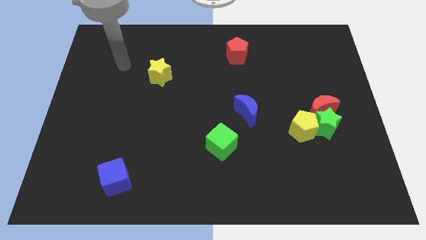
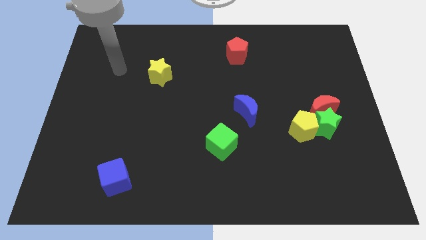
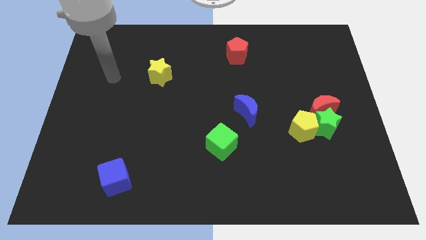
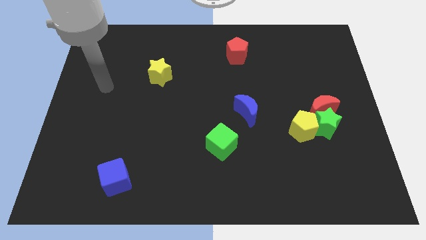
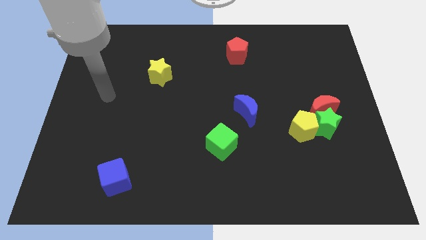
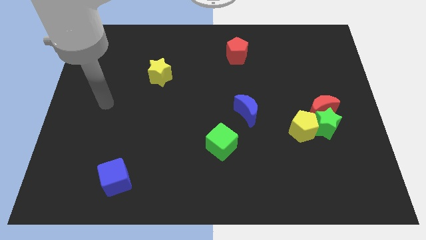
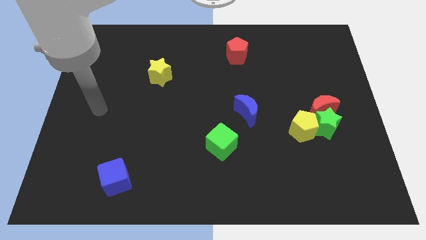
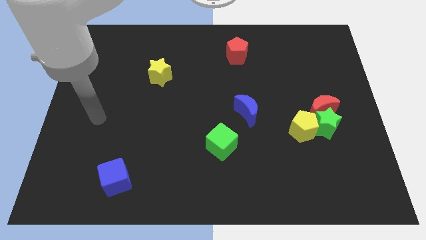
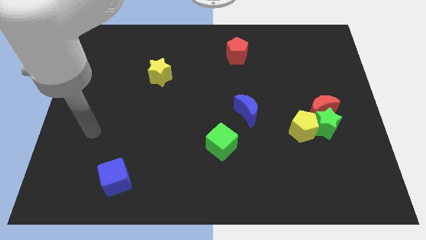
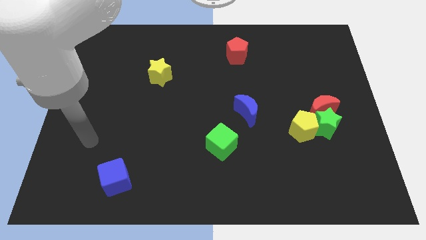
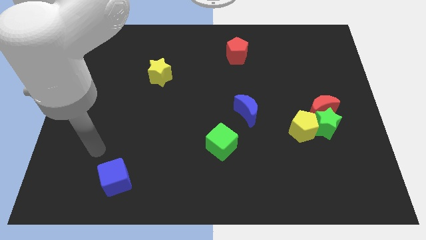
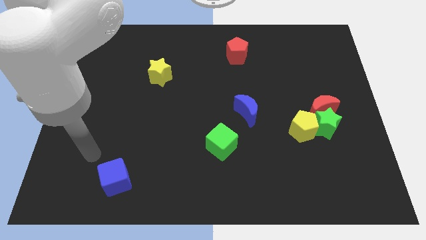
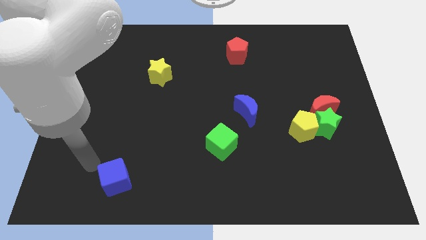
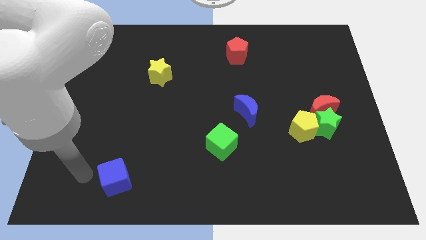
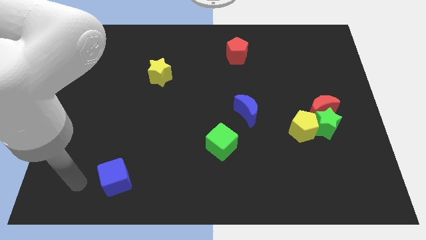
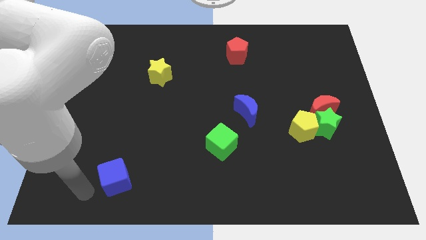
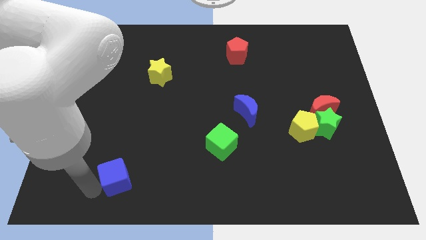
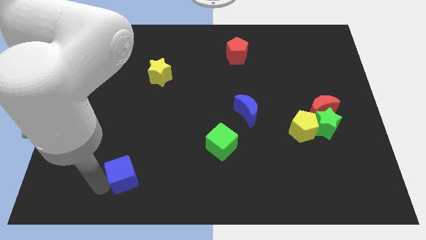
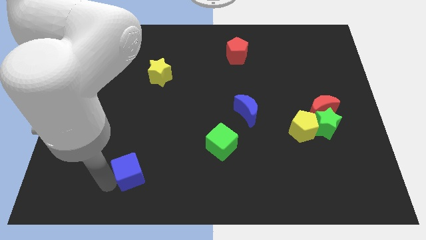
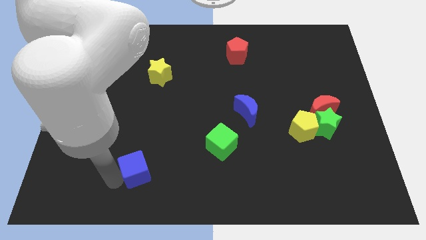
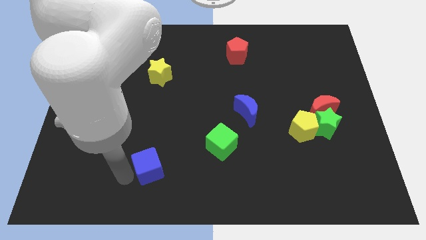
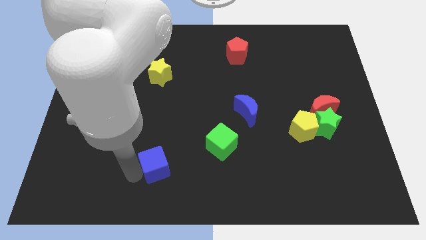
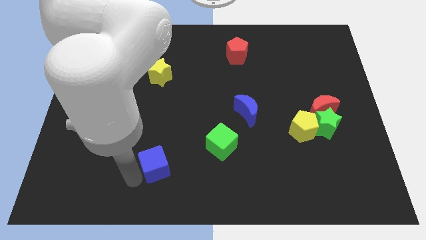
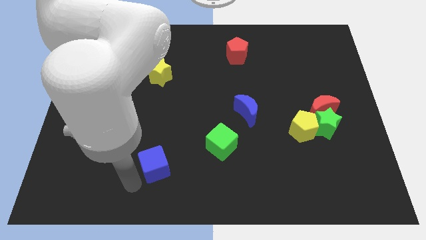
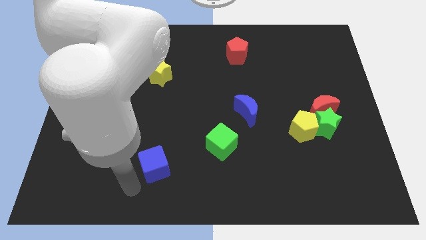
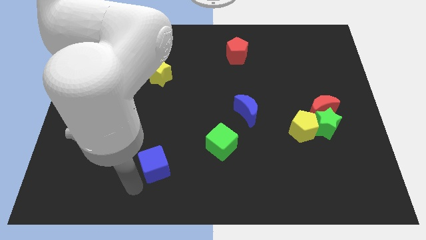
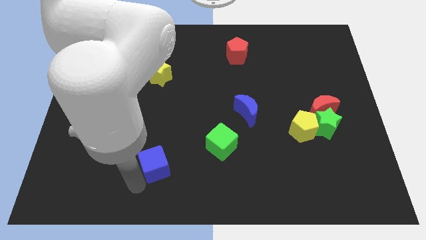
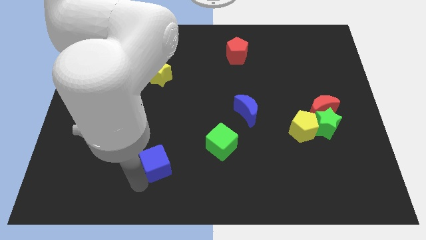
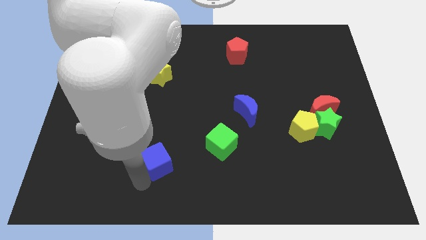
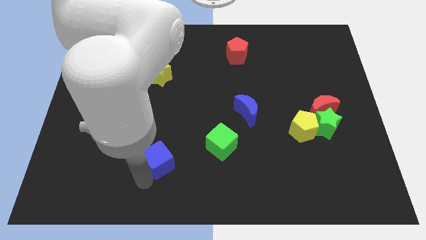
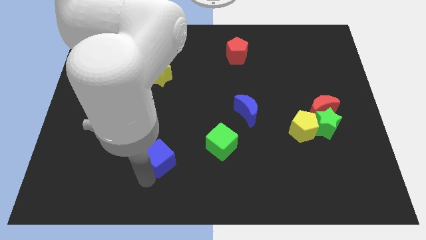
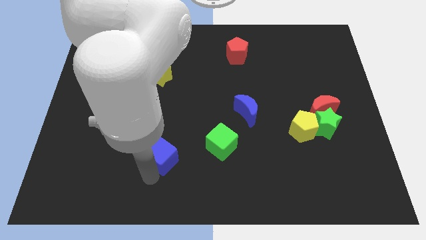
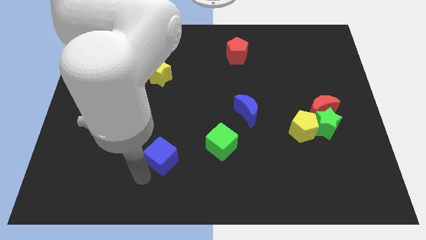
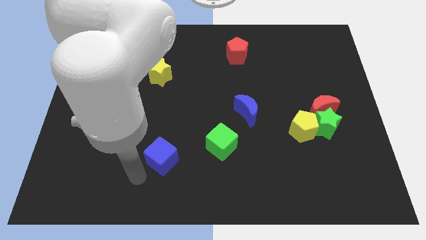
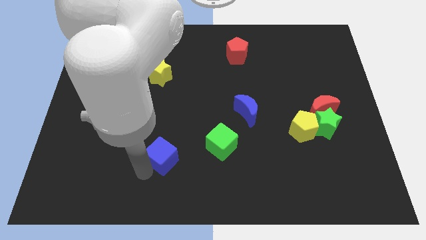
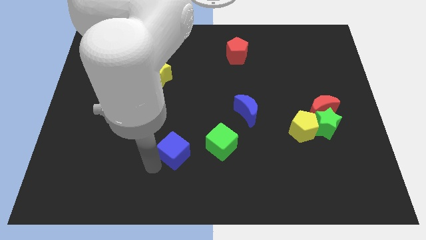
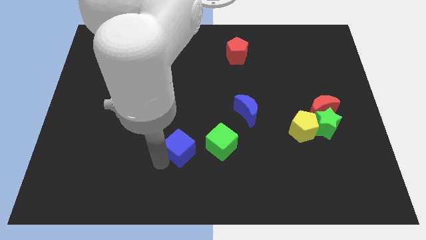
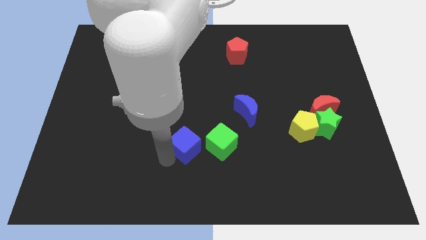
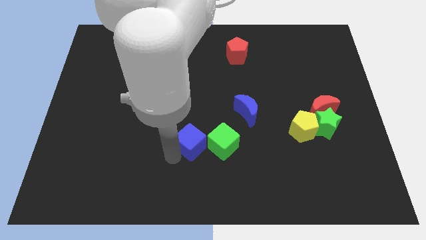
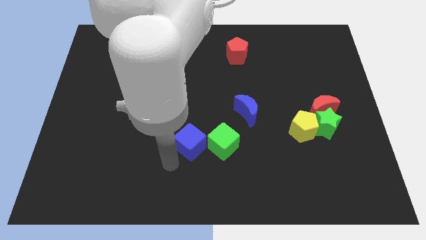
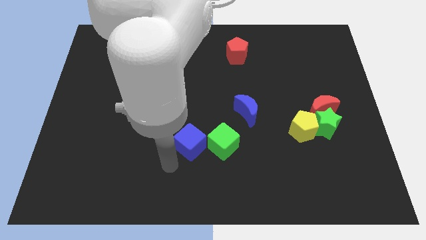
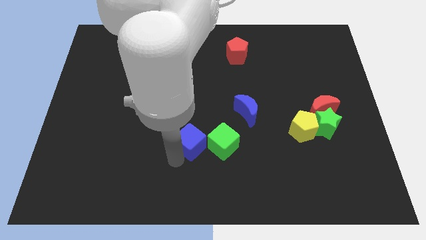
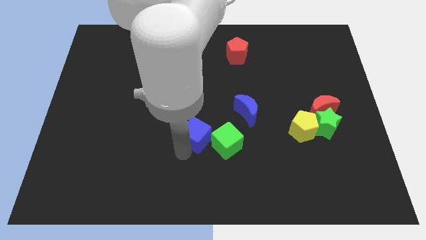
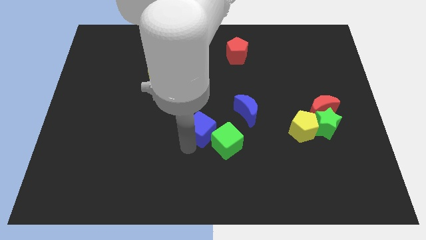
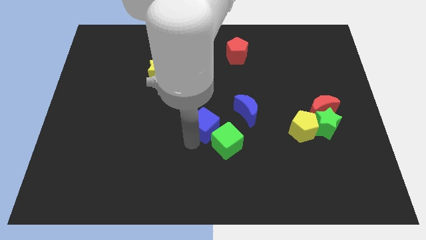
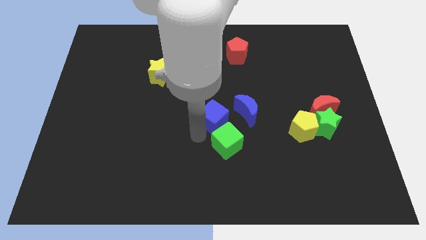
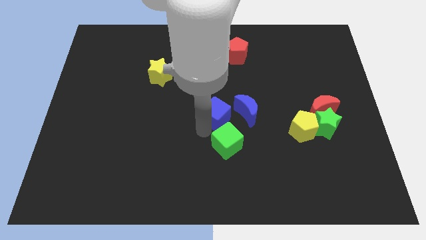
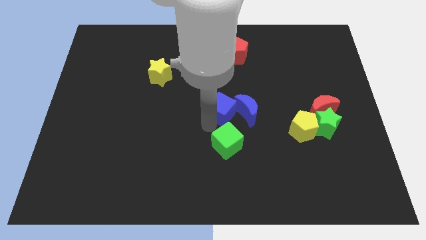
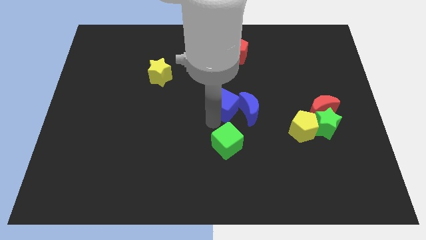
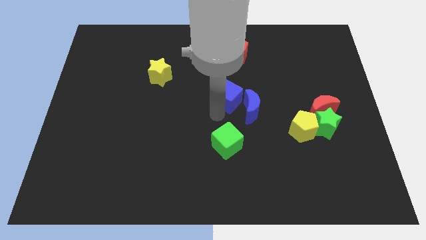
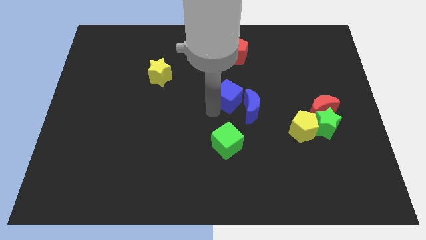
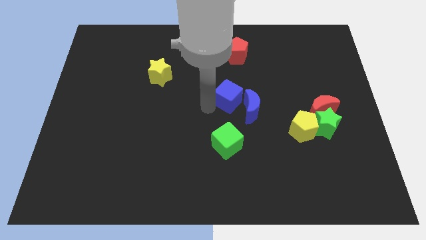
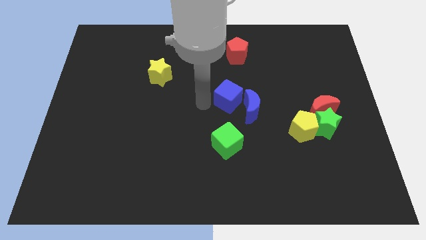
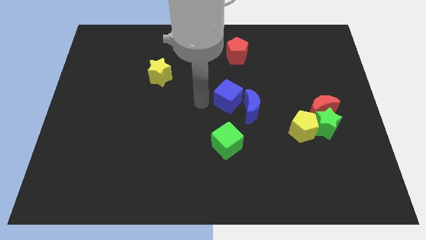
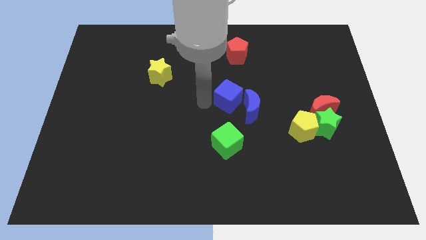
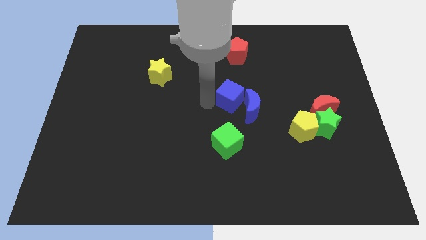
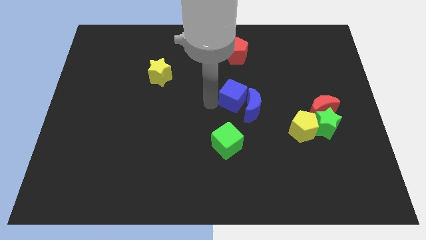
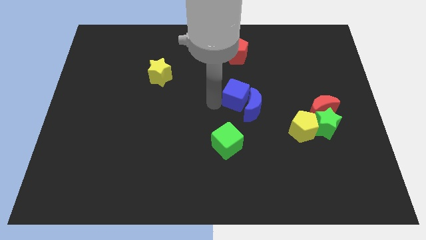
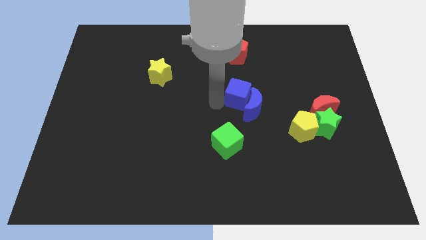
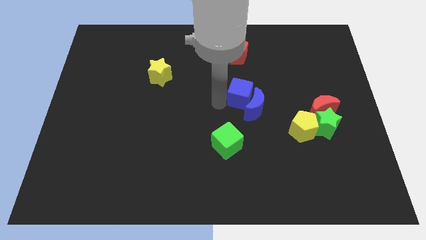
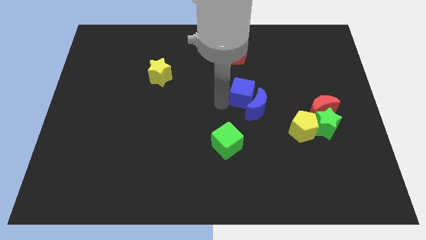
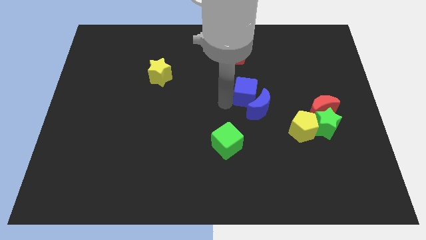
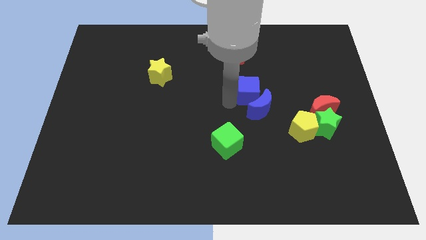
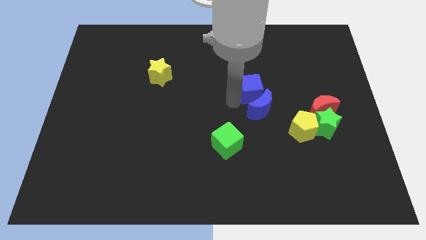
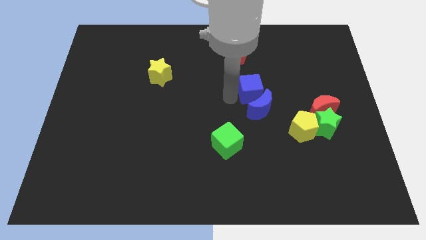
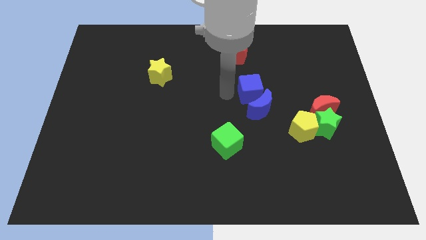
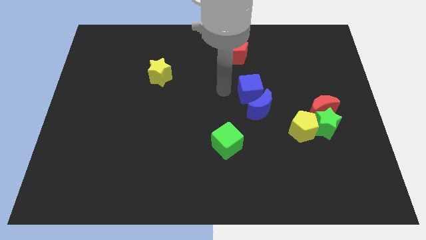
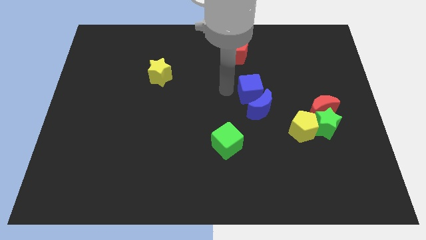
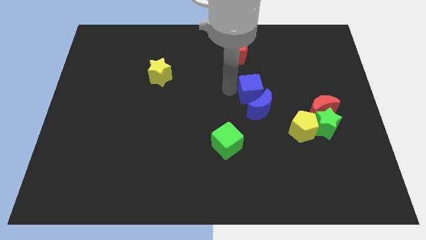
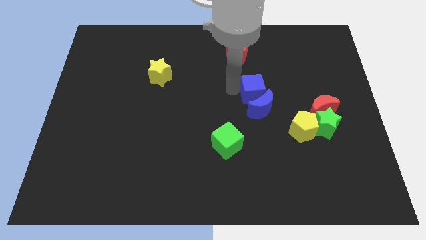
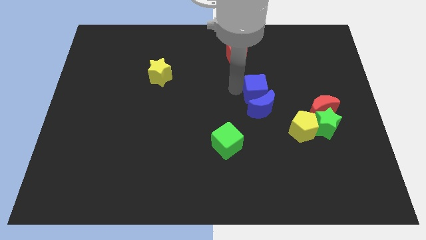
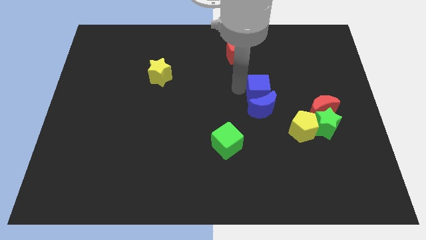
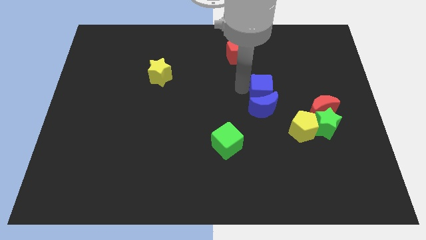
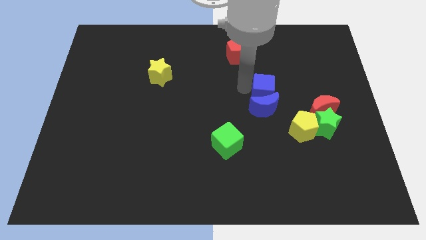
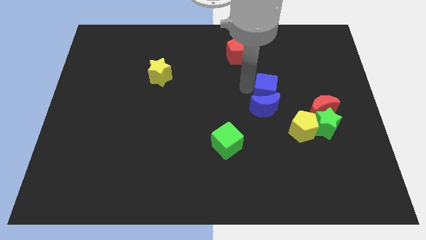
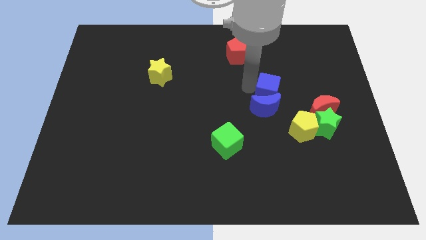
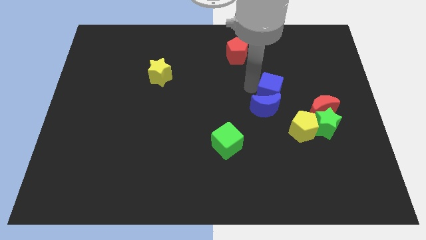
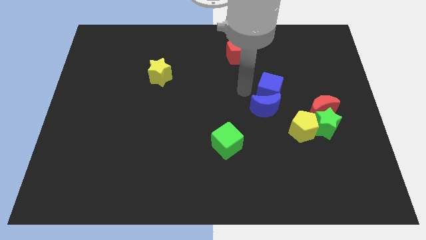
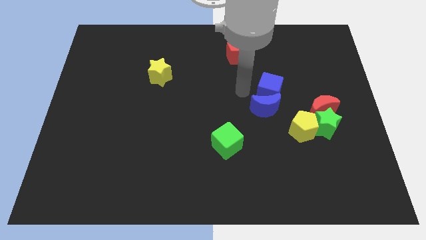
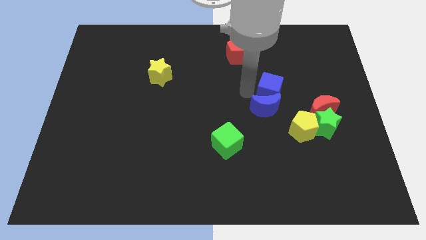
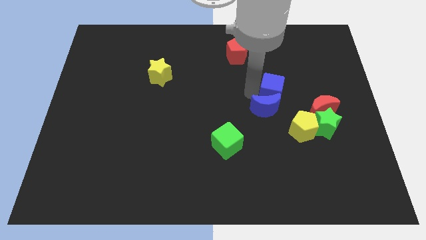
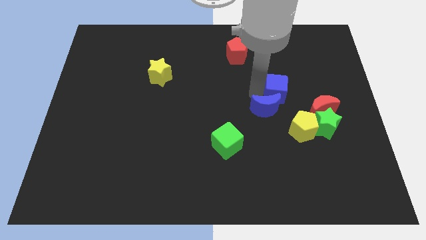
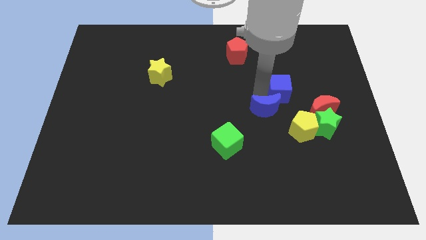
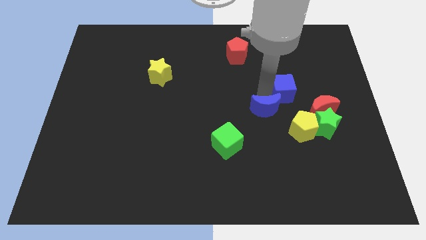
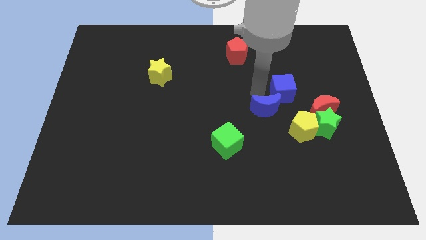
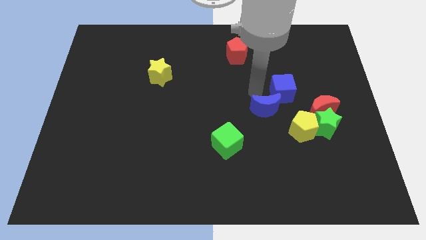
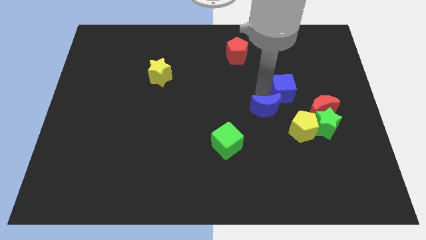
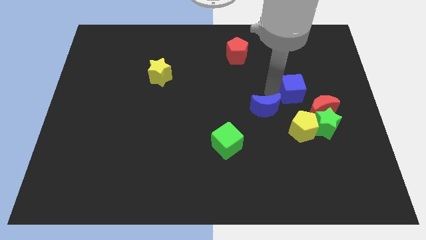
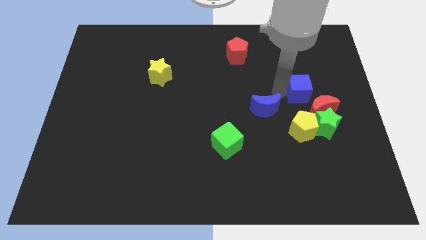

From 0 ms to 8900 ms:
slide the blue cube above the green star
